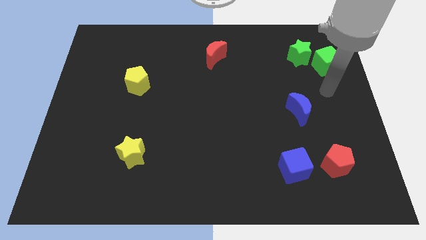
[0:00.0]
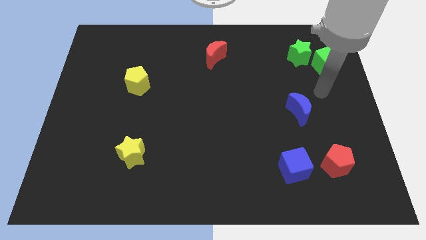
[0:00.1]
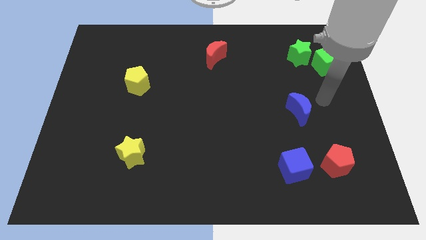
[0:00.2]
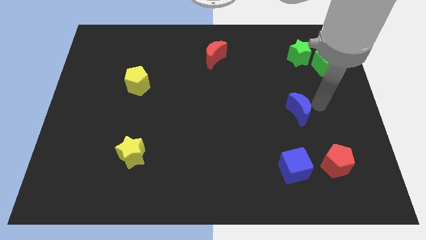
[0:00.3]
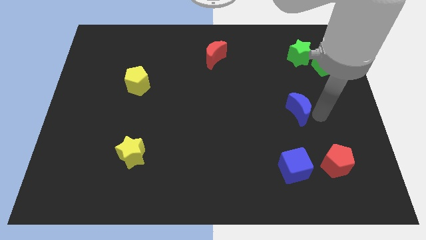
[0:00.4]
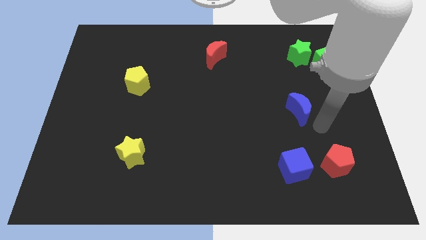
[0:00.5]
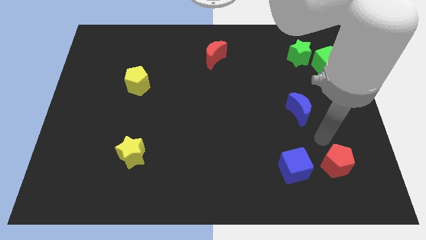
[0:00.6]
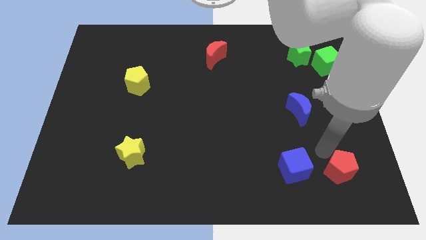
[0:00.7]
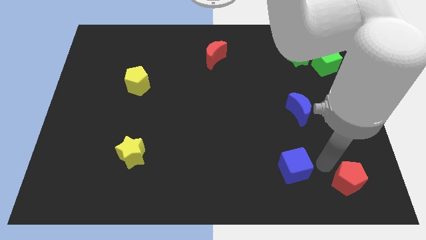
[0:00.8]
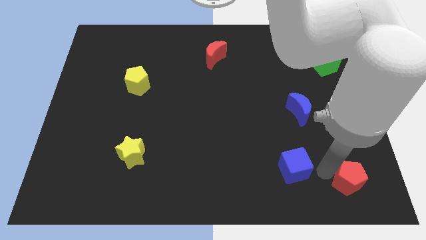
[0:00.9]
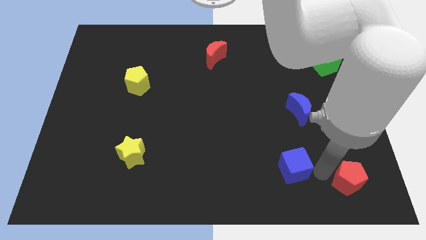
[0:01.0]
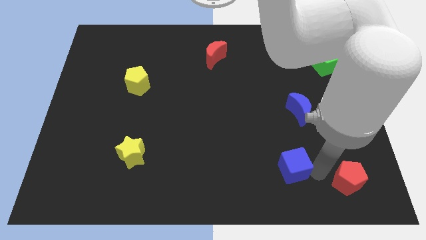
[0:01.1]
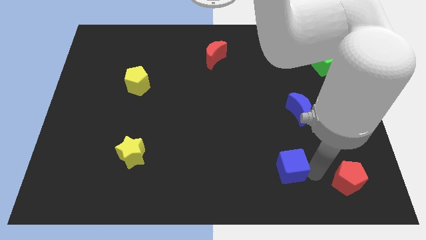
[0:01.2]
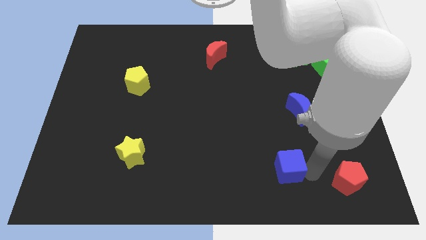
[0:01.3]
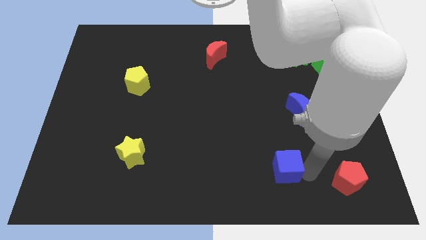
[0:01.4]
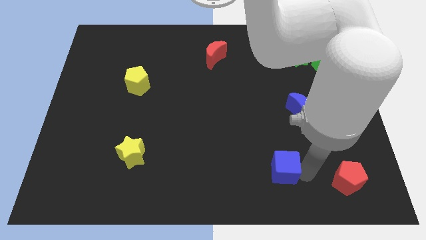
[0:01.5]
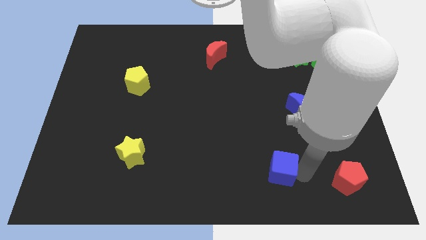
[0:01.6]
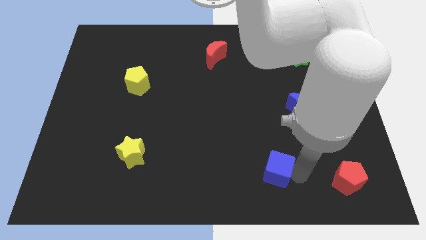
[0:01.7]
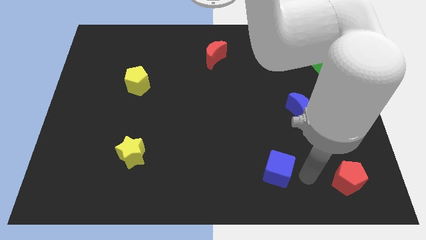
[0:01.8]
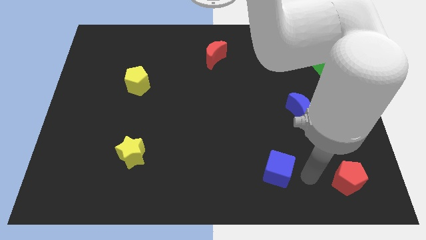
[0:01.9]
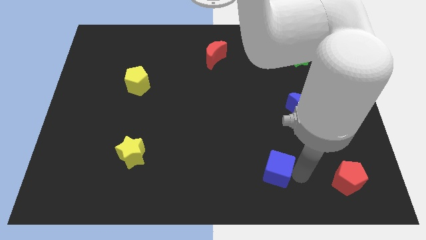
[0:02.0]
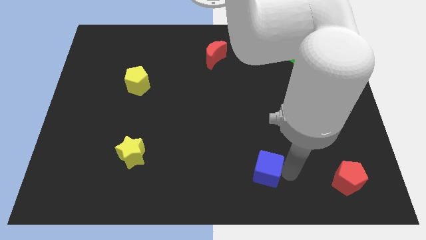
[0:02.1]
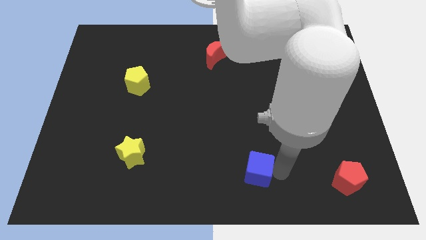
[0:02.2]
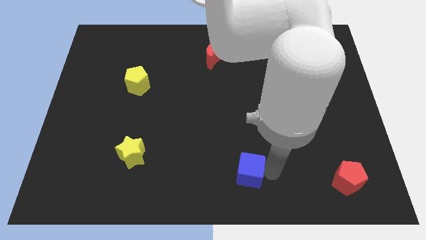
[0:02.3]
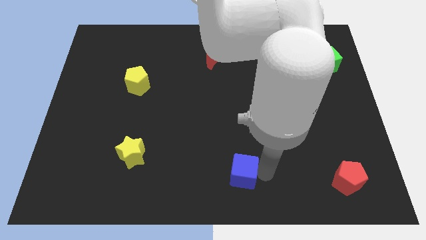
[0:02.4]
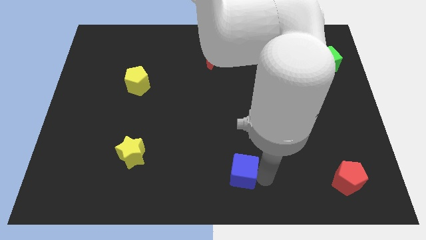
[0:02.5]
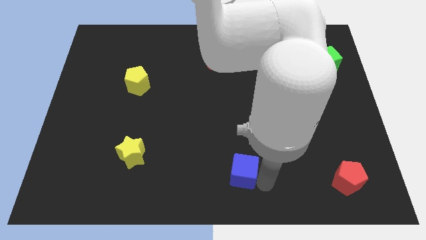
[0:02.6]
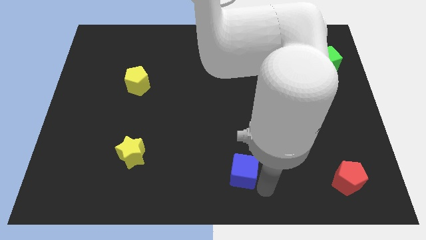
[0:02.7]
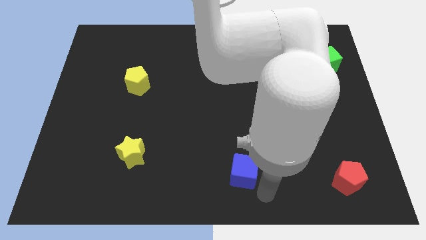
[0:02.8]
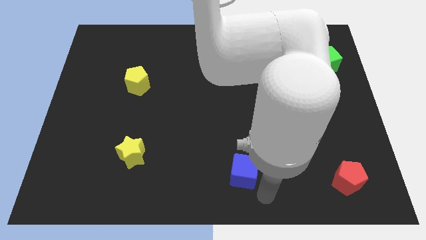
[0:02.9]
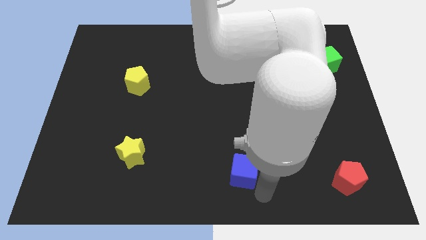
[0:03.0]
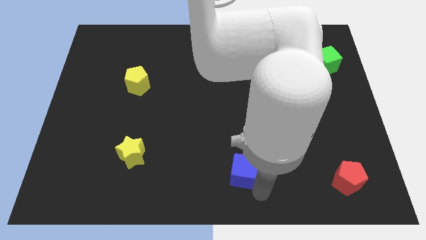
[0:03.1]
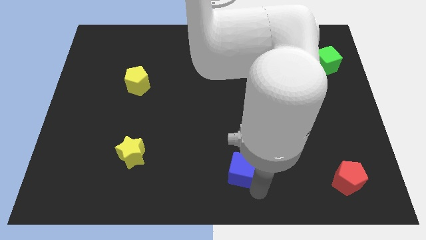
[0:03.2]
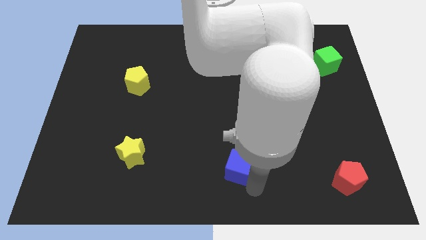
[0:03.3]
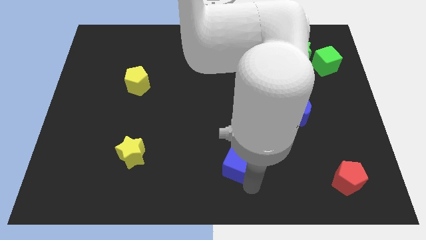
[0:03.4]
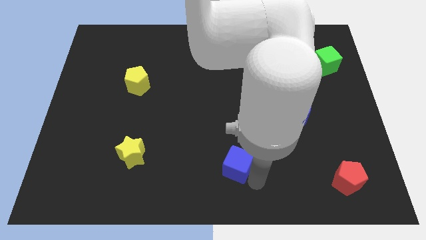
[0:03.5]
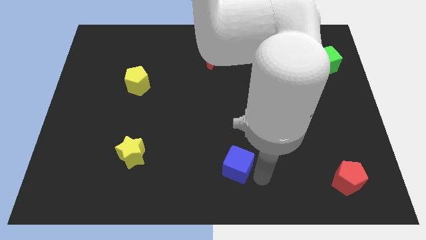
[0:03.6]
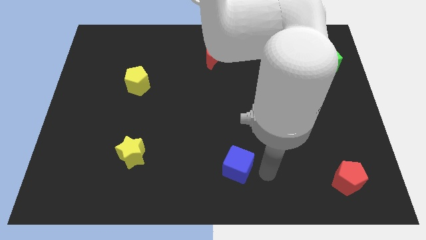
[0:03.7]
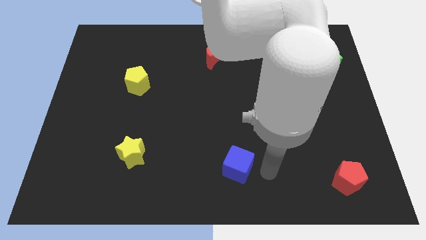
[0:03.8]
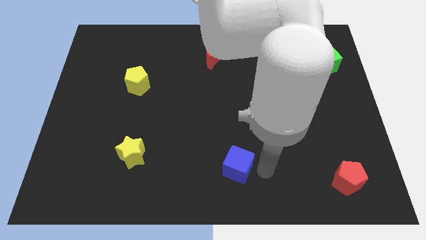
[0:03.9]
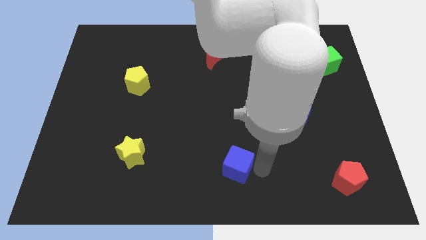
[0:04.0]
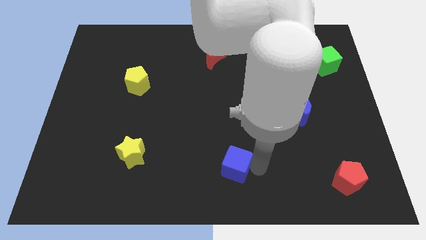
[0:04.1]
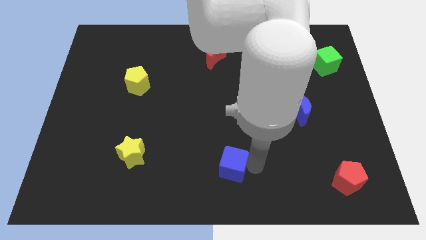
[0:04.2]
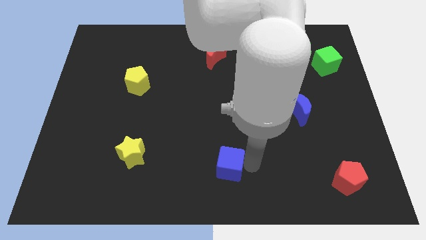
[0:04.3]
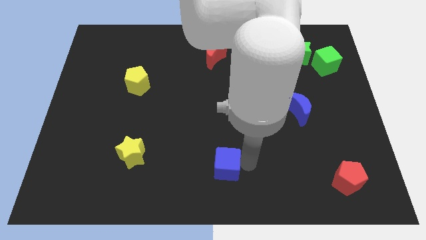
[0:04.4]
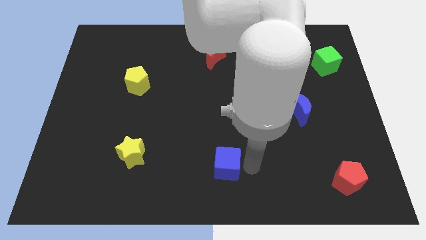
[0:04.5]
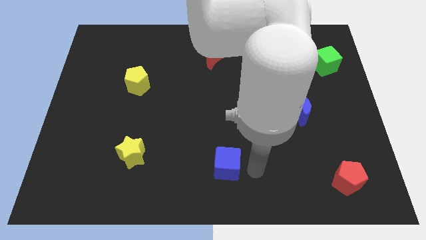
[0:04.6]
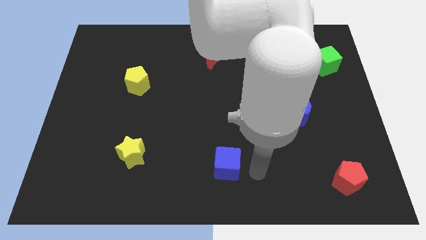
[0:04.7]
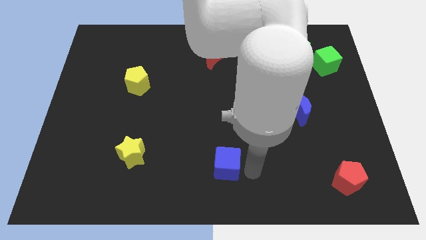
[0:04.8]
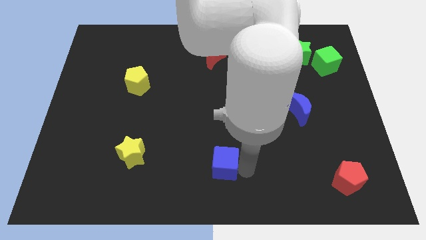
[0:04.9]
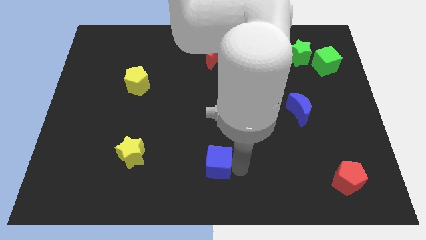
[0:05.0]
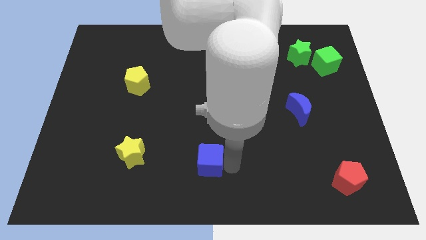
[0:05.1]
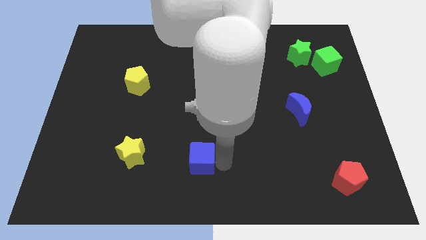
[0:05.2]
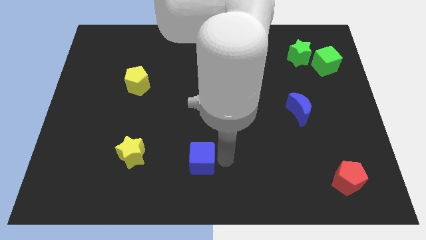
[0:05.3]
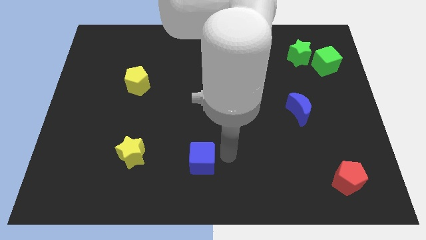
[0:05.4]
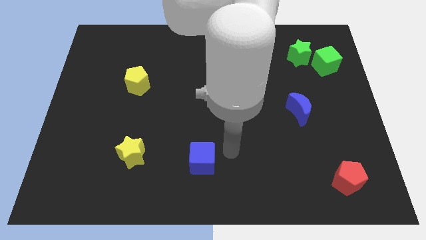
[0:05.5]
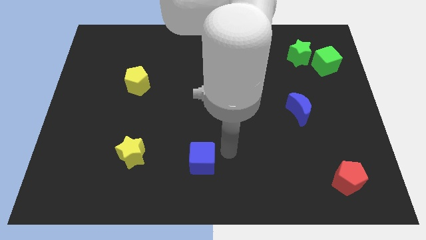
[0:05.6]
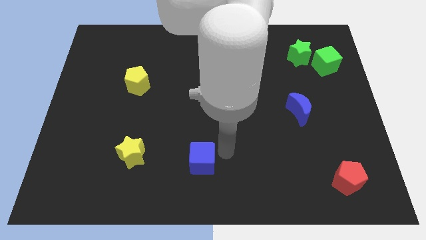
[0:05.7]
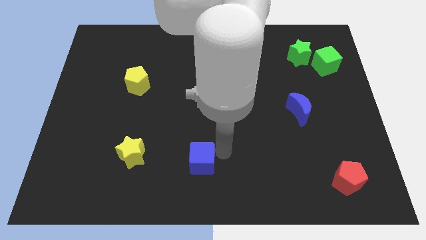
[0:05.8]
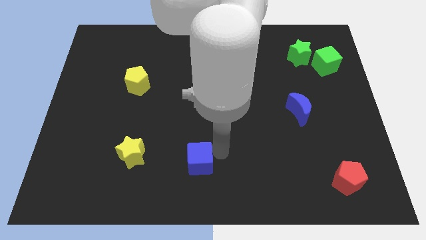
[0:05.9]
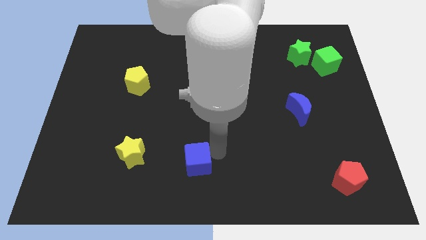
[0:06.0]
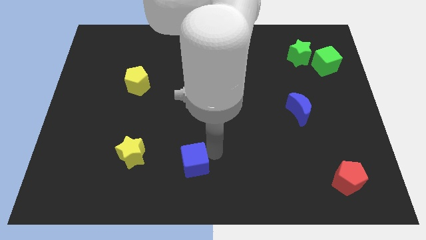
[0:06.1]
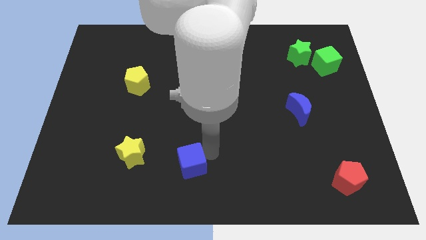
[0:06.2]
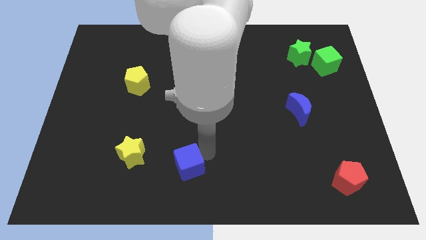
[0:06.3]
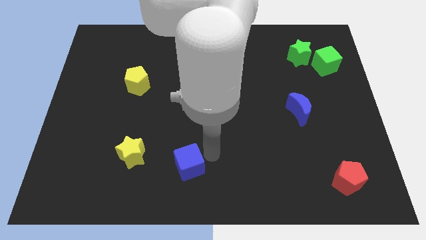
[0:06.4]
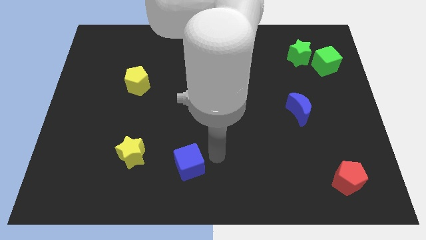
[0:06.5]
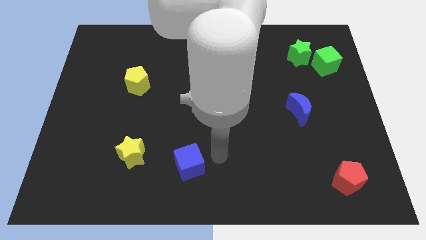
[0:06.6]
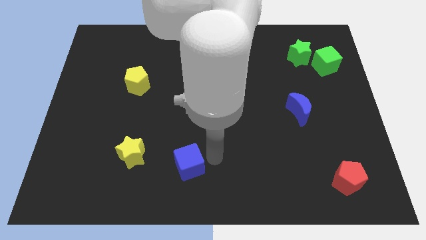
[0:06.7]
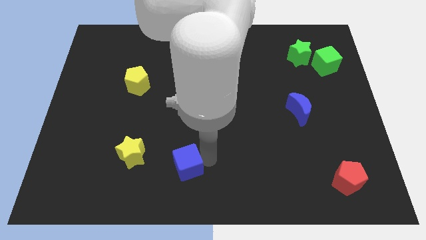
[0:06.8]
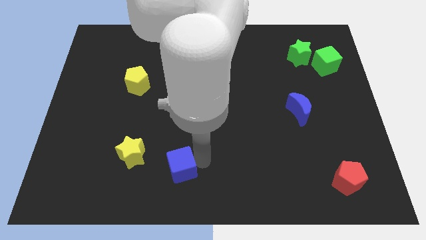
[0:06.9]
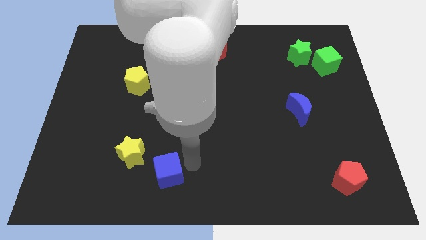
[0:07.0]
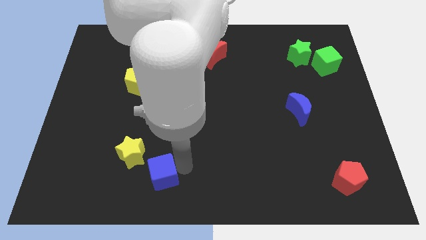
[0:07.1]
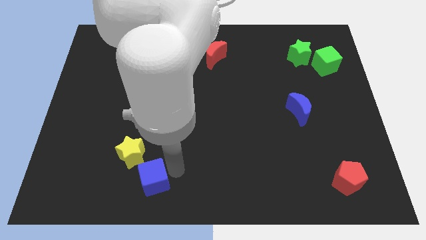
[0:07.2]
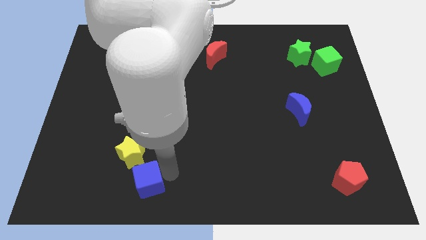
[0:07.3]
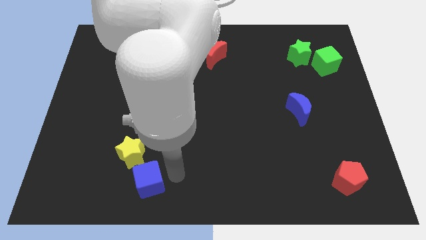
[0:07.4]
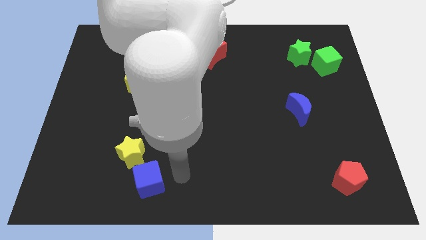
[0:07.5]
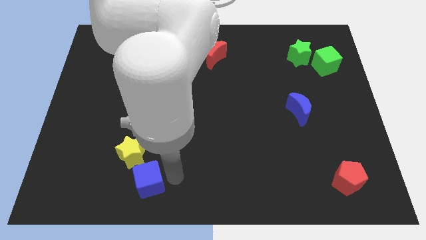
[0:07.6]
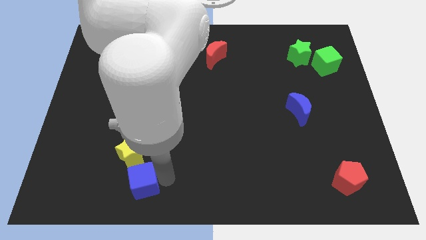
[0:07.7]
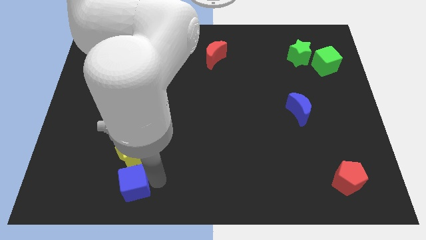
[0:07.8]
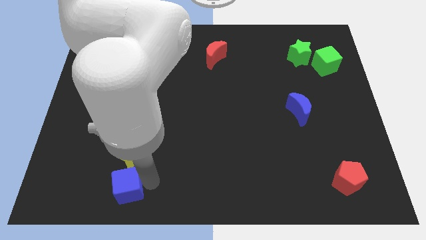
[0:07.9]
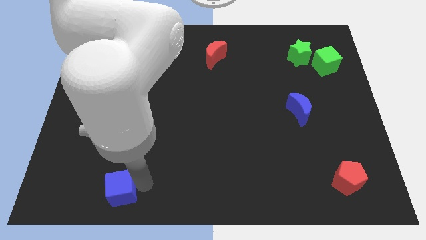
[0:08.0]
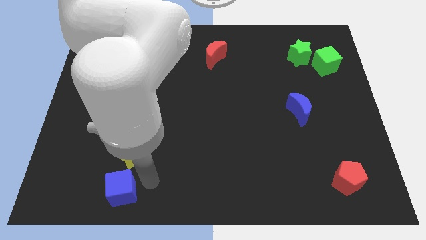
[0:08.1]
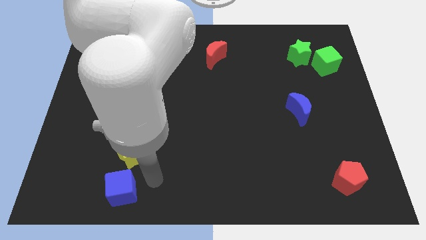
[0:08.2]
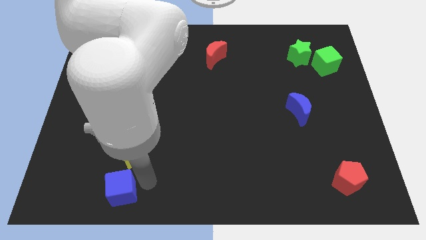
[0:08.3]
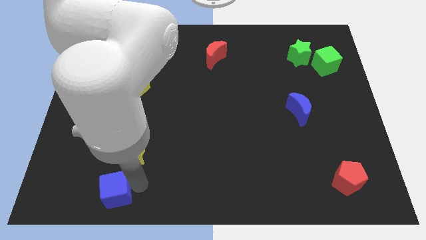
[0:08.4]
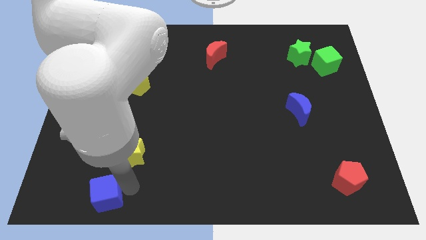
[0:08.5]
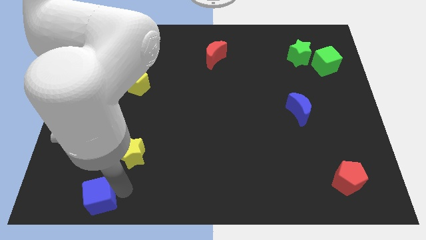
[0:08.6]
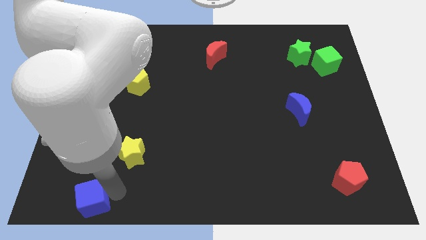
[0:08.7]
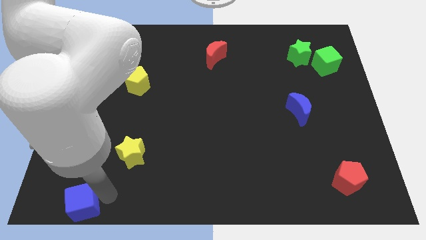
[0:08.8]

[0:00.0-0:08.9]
push the blue cube to the bottom left of the board
